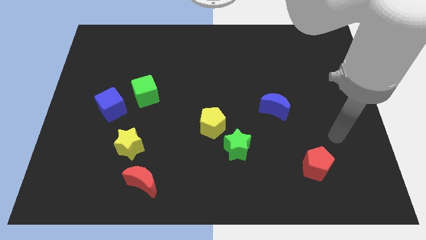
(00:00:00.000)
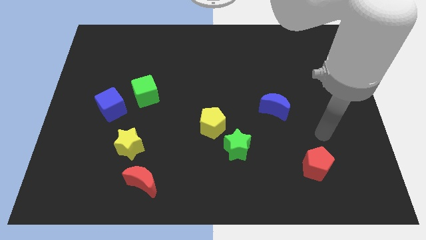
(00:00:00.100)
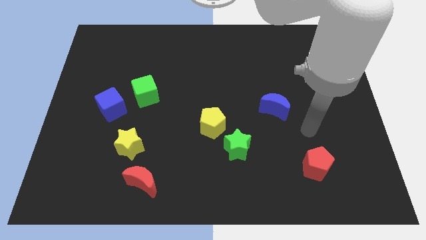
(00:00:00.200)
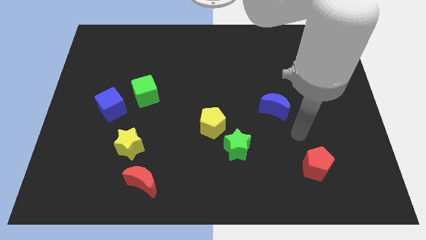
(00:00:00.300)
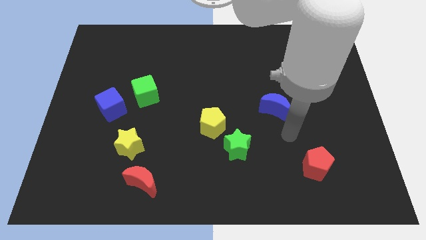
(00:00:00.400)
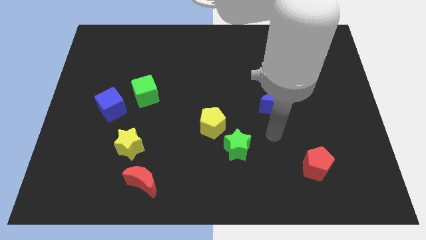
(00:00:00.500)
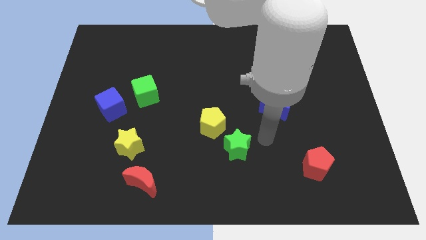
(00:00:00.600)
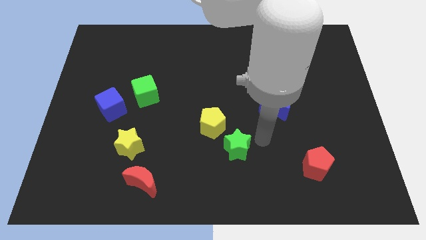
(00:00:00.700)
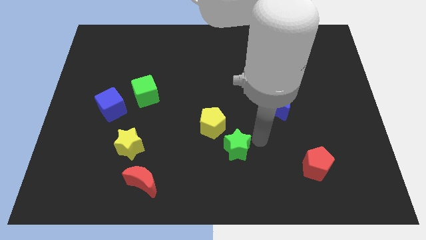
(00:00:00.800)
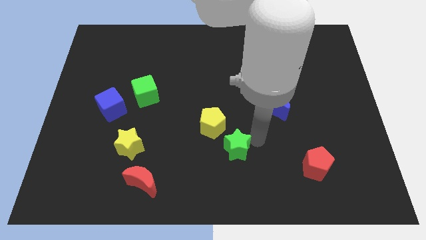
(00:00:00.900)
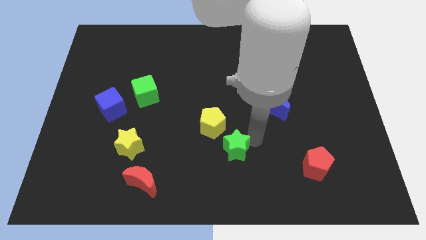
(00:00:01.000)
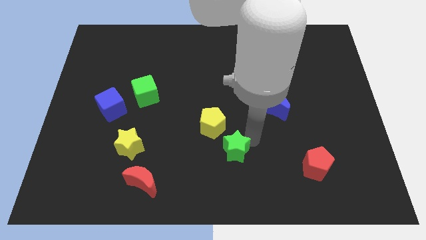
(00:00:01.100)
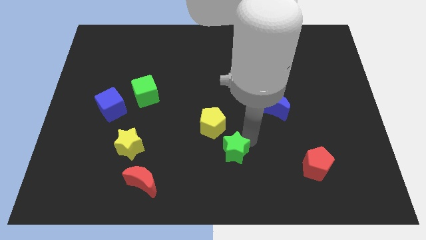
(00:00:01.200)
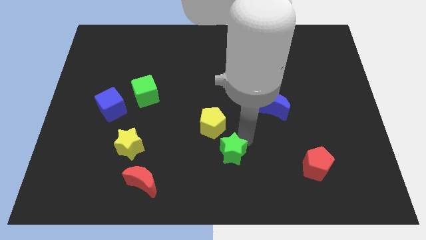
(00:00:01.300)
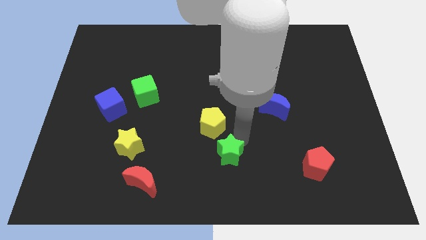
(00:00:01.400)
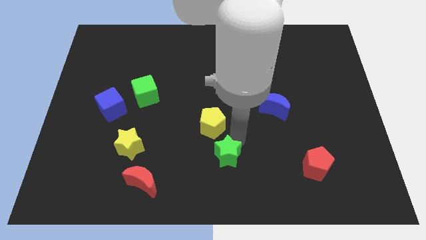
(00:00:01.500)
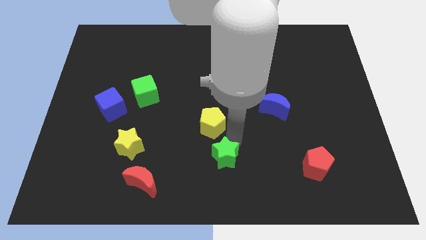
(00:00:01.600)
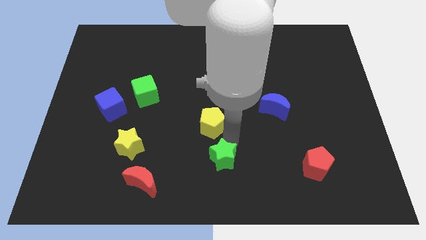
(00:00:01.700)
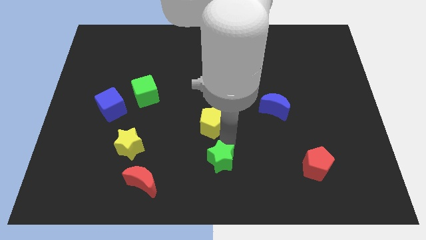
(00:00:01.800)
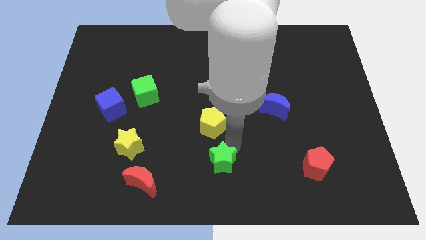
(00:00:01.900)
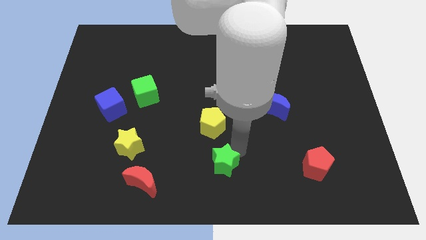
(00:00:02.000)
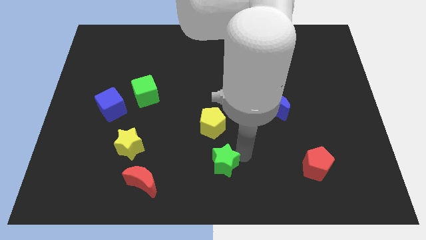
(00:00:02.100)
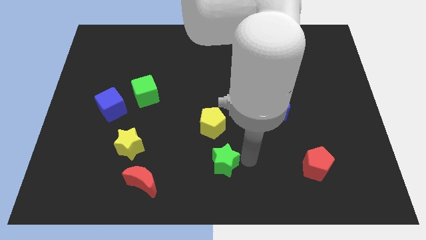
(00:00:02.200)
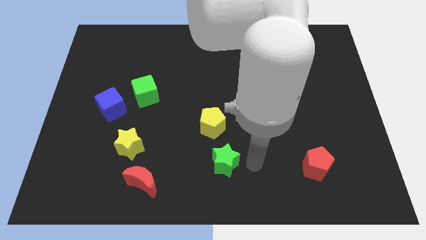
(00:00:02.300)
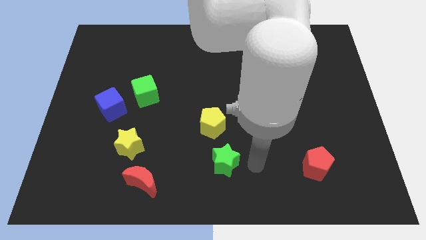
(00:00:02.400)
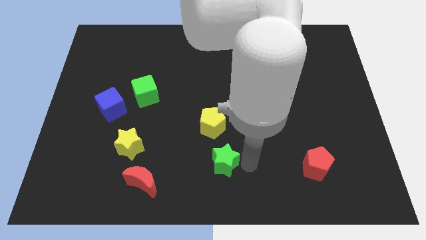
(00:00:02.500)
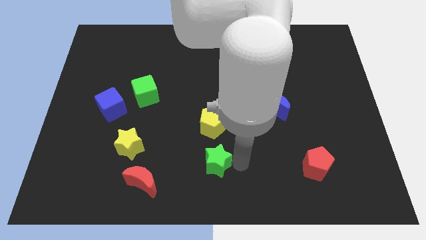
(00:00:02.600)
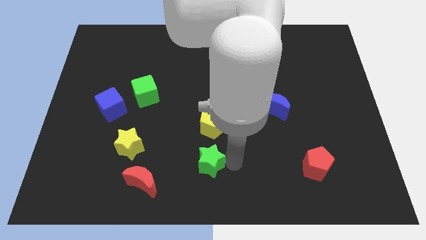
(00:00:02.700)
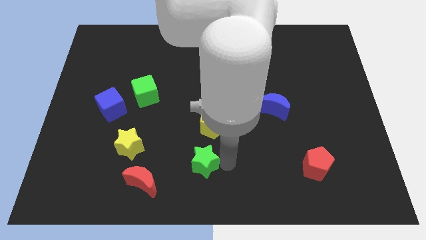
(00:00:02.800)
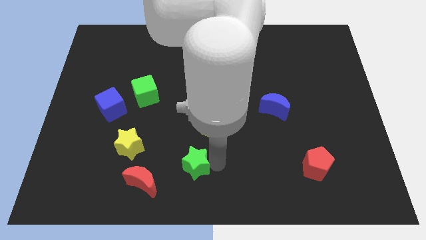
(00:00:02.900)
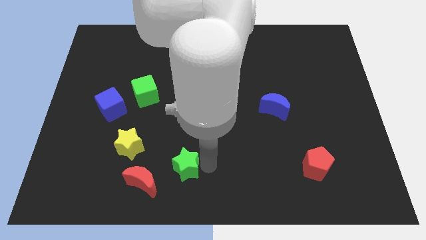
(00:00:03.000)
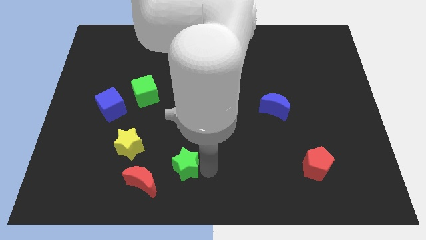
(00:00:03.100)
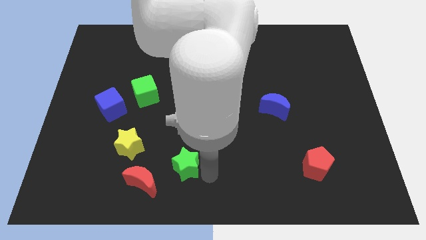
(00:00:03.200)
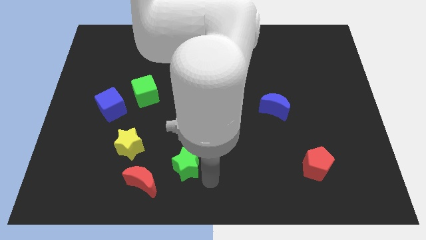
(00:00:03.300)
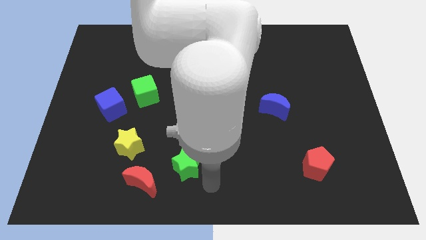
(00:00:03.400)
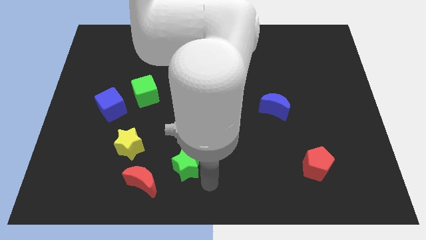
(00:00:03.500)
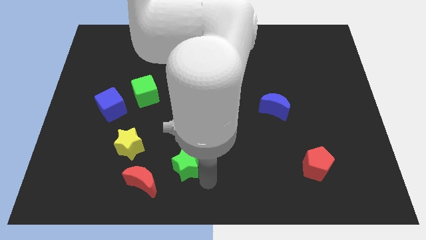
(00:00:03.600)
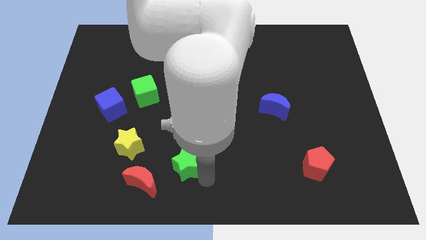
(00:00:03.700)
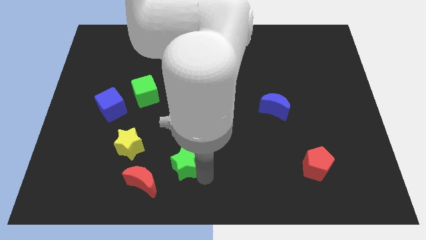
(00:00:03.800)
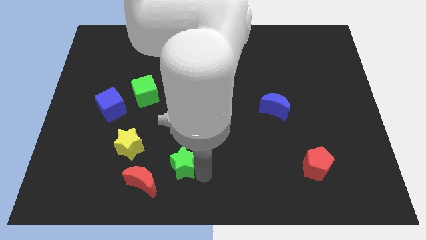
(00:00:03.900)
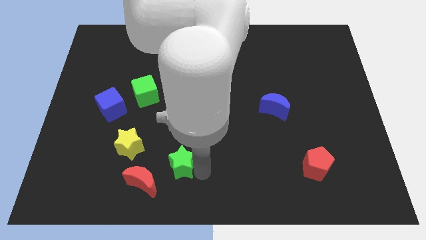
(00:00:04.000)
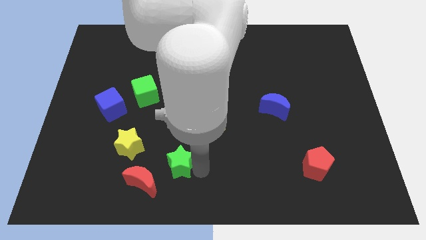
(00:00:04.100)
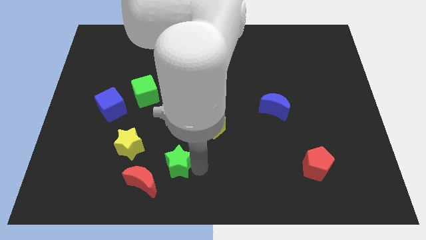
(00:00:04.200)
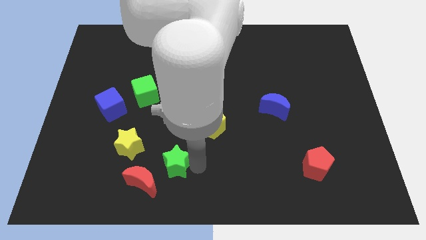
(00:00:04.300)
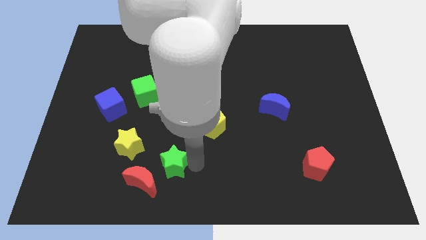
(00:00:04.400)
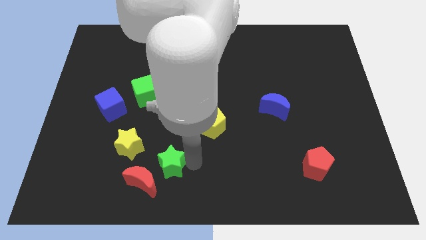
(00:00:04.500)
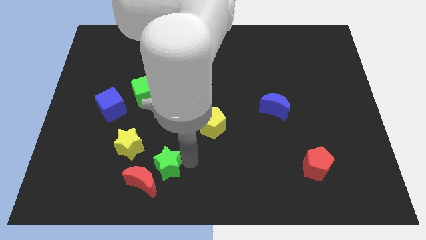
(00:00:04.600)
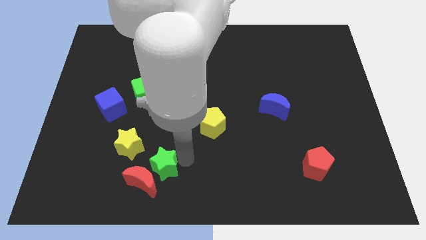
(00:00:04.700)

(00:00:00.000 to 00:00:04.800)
put the green star to the top side of the red moon

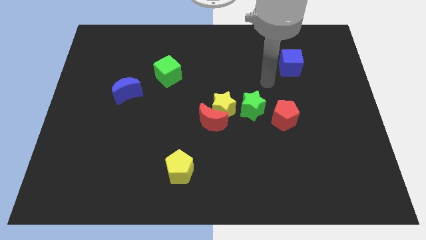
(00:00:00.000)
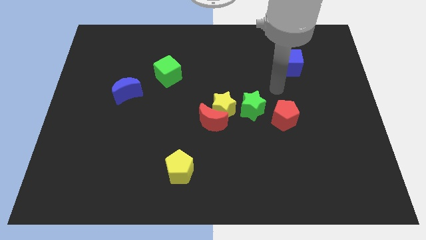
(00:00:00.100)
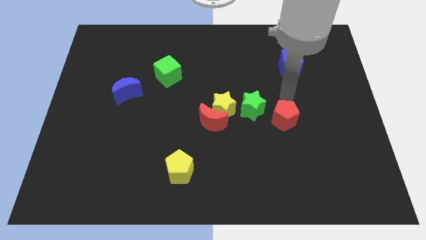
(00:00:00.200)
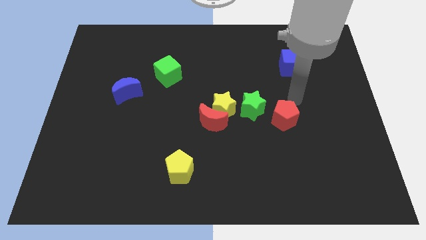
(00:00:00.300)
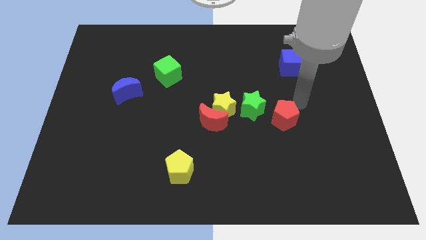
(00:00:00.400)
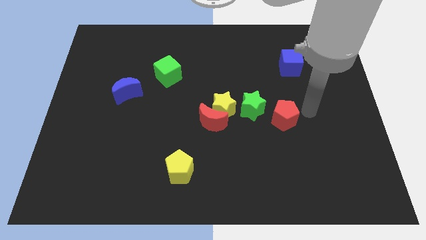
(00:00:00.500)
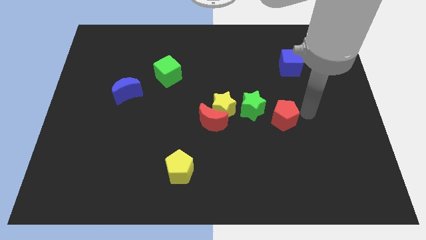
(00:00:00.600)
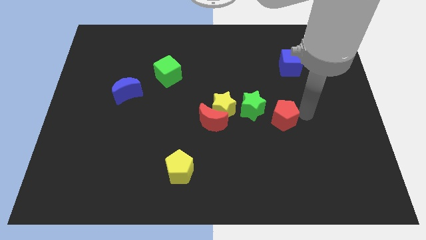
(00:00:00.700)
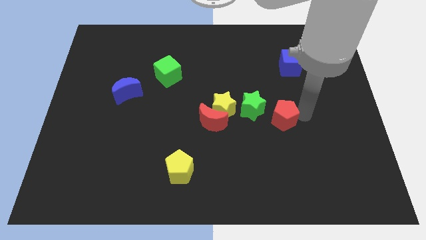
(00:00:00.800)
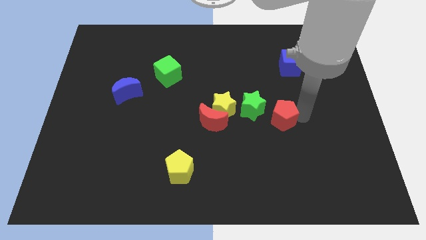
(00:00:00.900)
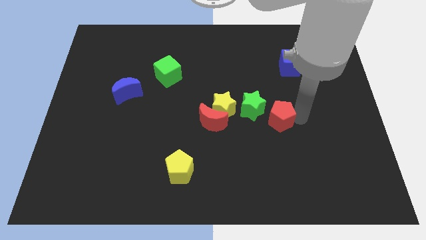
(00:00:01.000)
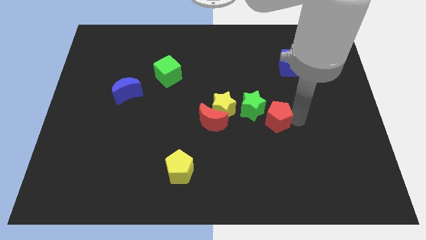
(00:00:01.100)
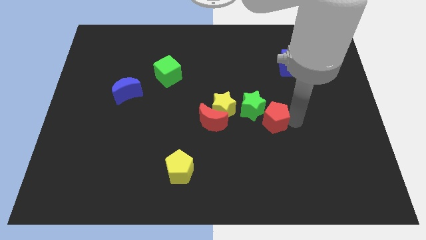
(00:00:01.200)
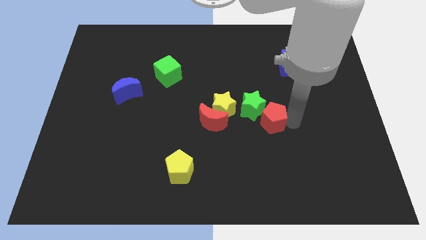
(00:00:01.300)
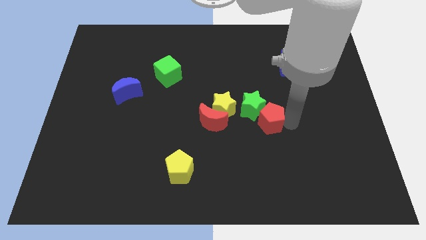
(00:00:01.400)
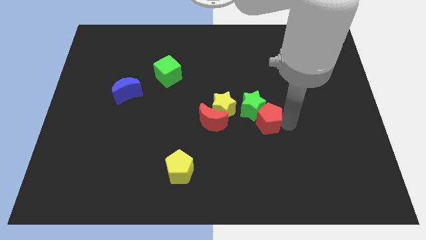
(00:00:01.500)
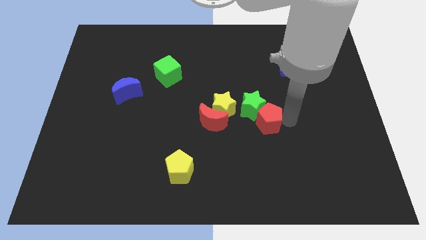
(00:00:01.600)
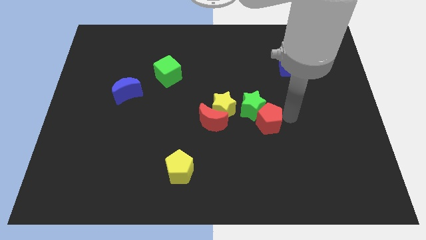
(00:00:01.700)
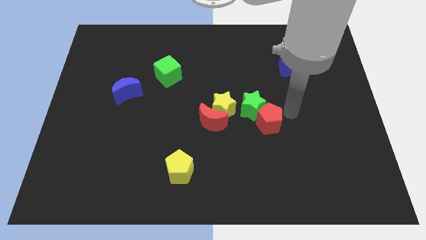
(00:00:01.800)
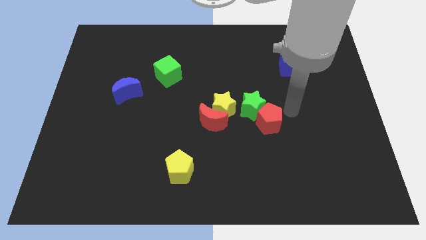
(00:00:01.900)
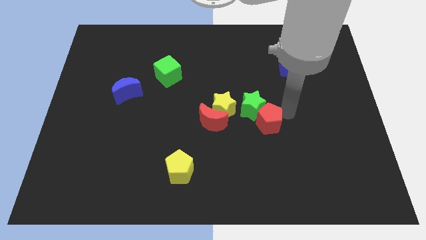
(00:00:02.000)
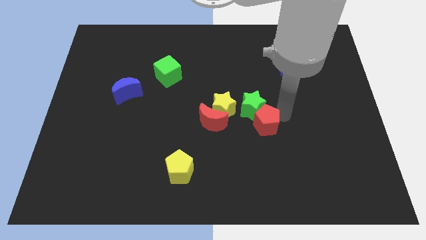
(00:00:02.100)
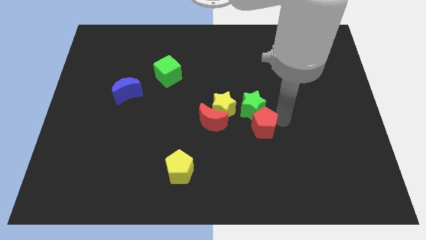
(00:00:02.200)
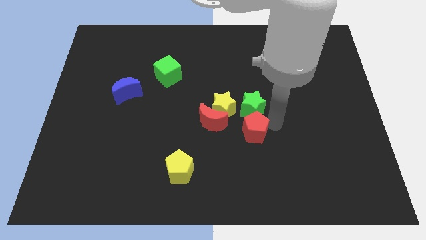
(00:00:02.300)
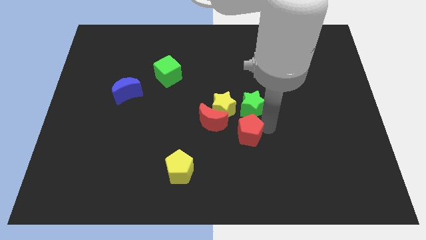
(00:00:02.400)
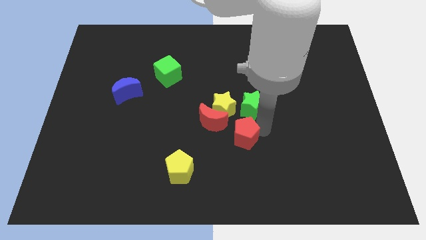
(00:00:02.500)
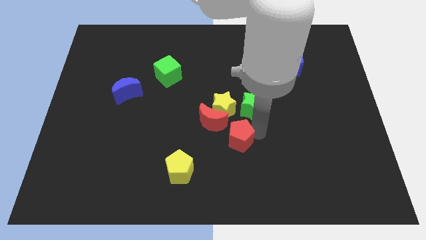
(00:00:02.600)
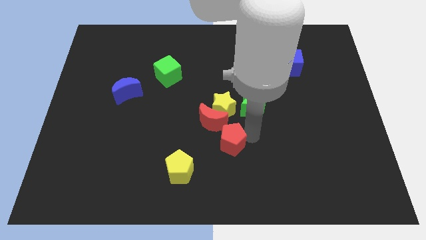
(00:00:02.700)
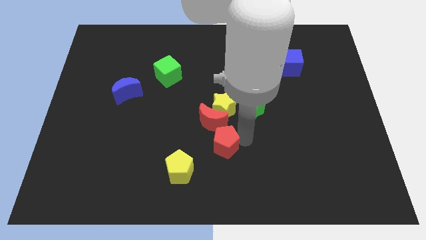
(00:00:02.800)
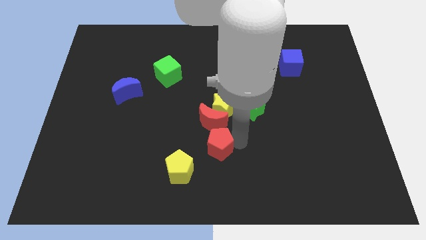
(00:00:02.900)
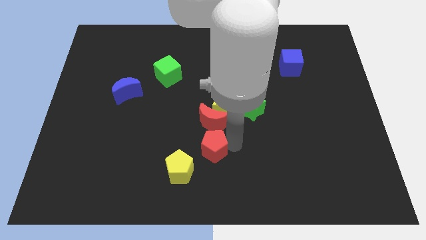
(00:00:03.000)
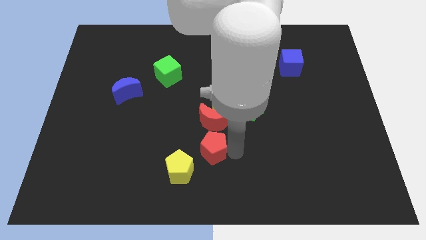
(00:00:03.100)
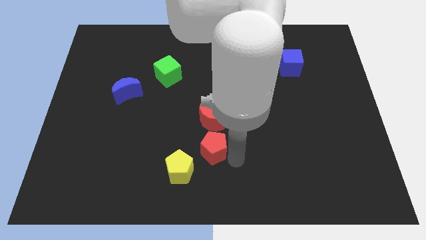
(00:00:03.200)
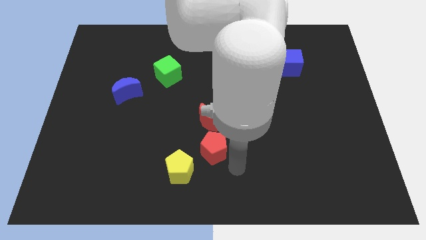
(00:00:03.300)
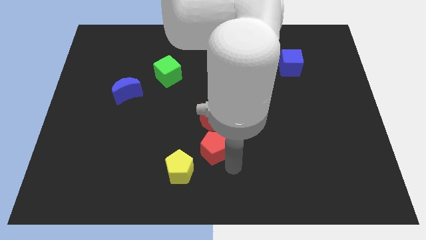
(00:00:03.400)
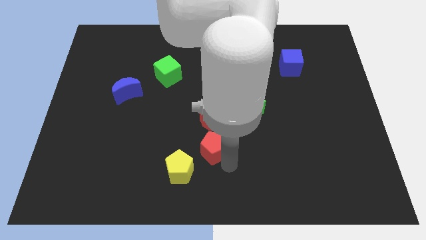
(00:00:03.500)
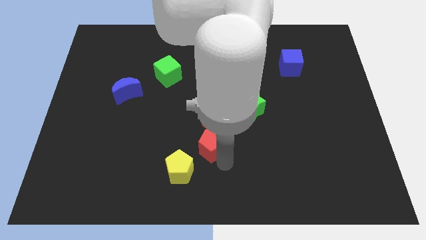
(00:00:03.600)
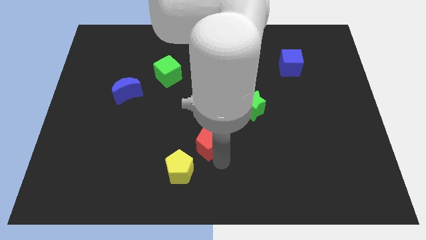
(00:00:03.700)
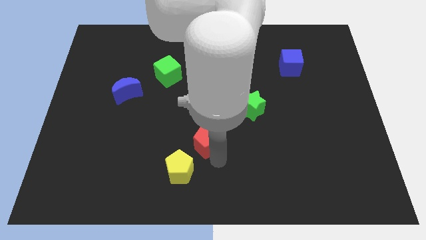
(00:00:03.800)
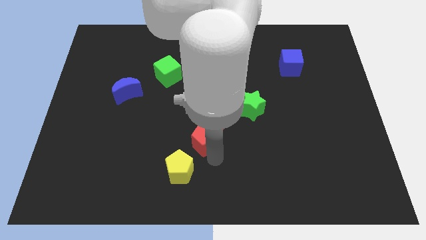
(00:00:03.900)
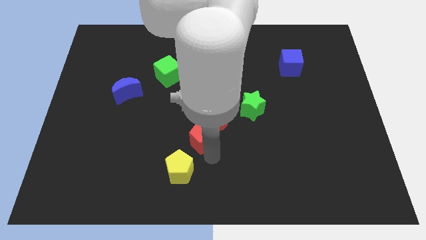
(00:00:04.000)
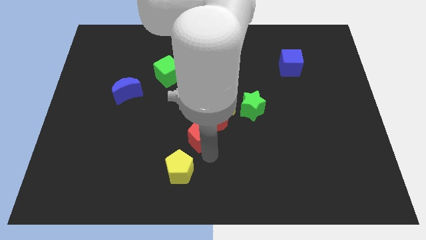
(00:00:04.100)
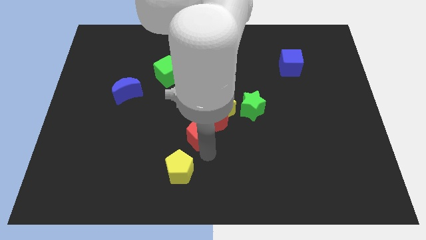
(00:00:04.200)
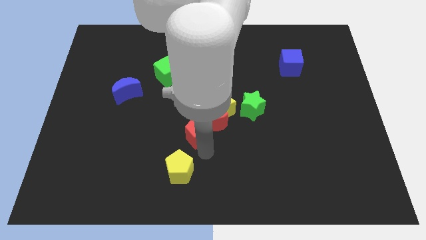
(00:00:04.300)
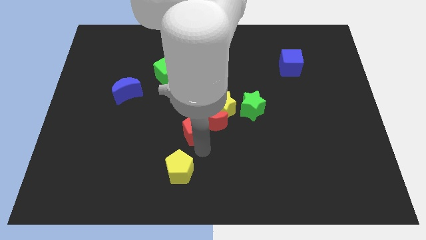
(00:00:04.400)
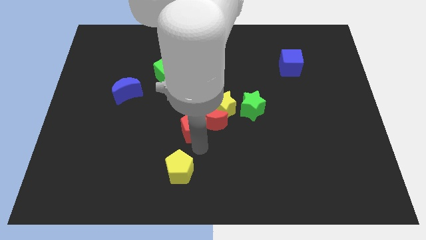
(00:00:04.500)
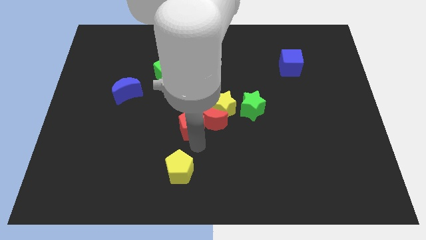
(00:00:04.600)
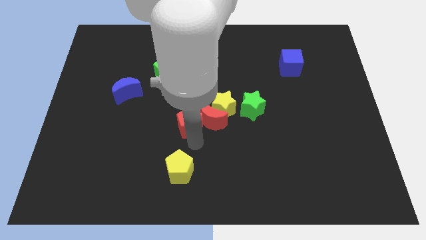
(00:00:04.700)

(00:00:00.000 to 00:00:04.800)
slide the red pentagon left of the yellow star
